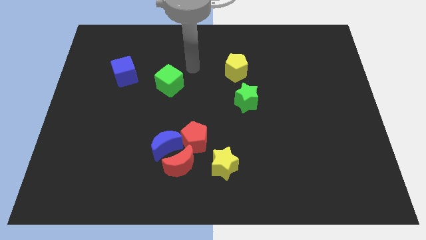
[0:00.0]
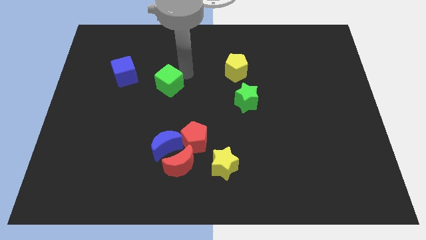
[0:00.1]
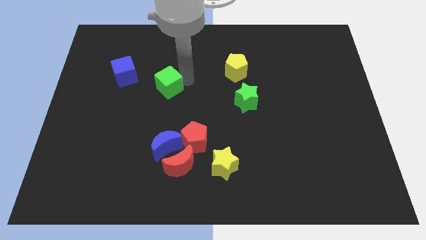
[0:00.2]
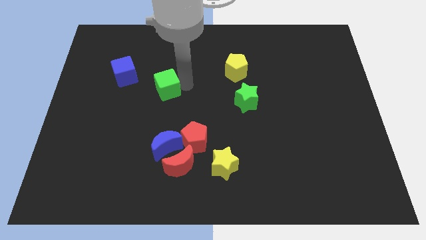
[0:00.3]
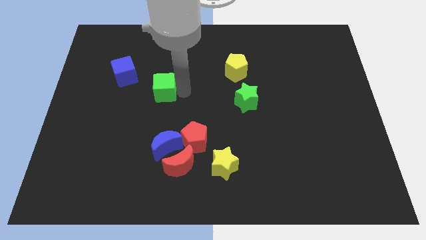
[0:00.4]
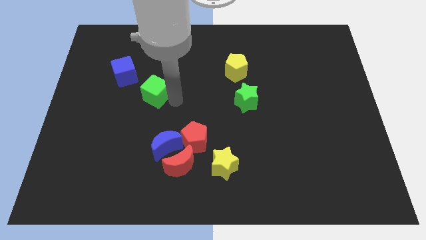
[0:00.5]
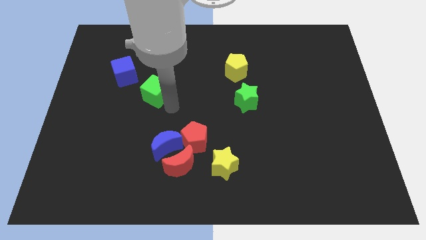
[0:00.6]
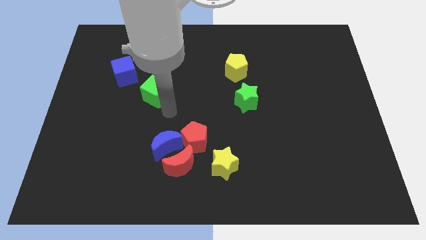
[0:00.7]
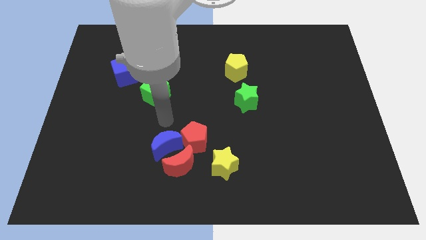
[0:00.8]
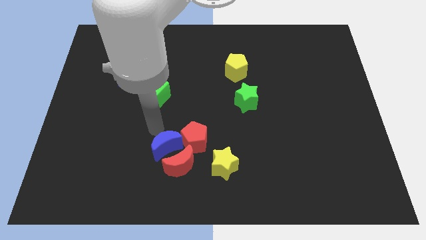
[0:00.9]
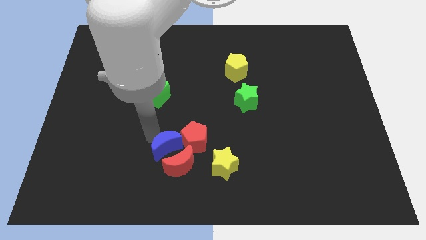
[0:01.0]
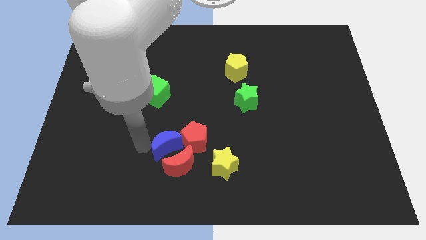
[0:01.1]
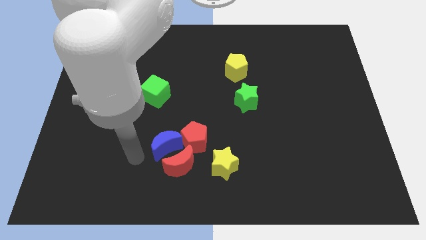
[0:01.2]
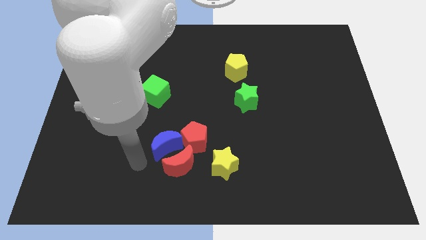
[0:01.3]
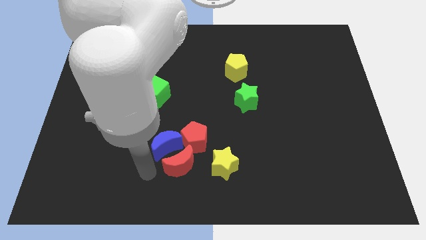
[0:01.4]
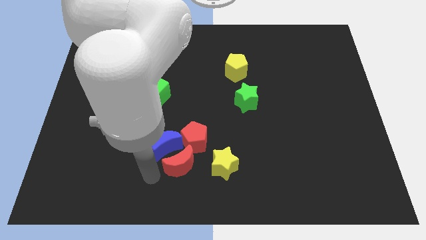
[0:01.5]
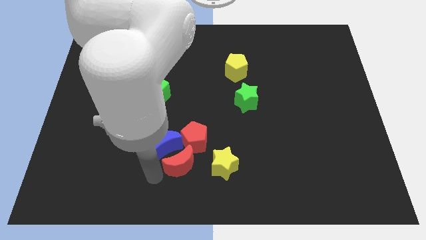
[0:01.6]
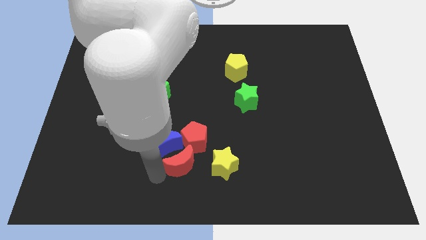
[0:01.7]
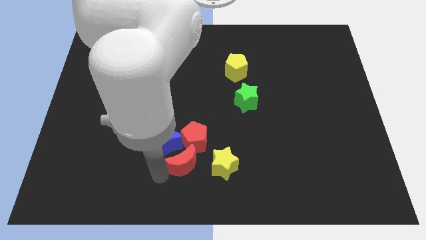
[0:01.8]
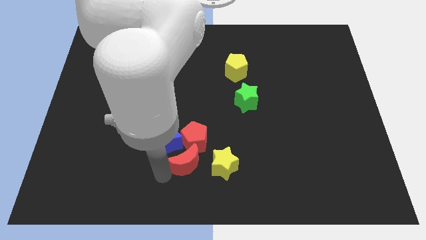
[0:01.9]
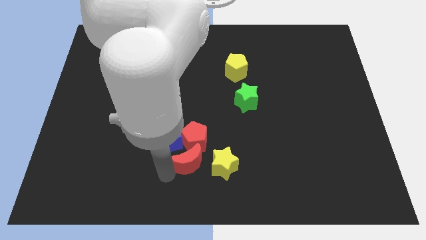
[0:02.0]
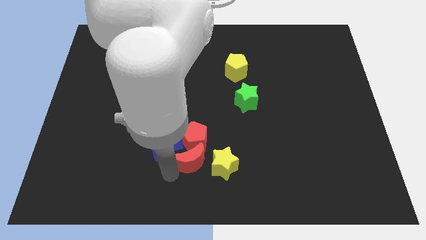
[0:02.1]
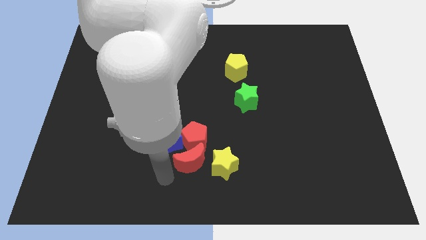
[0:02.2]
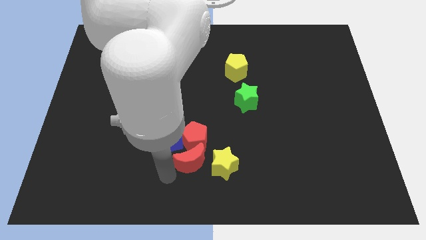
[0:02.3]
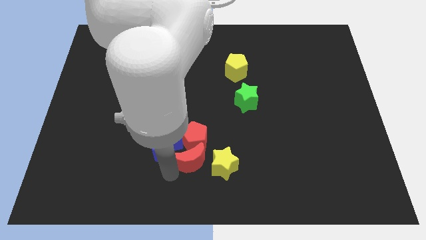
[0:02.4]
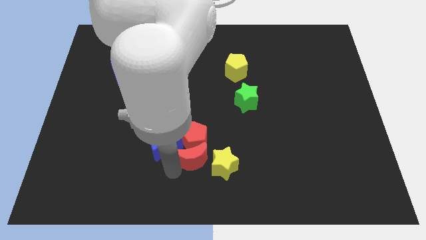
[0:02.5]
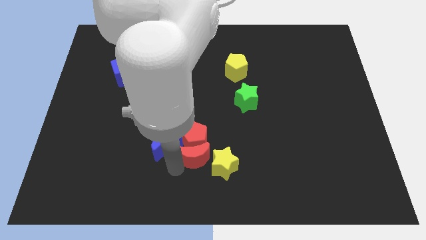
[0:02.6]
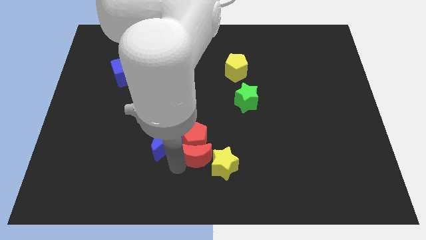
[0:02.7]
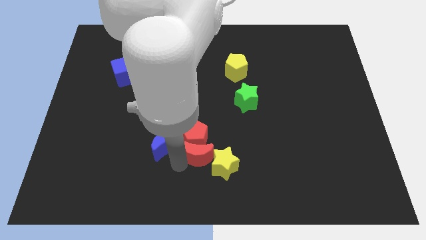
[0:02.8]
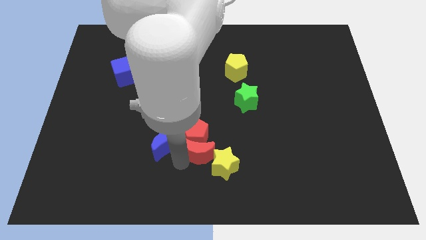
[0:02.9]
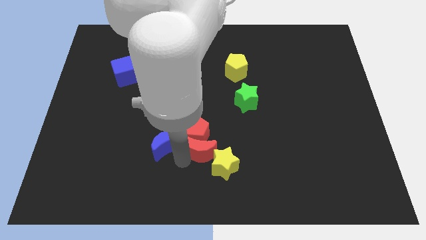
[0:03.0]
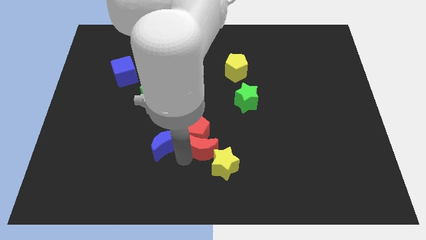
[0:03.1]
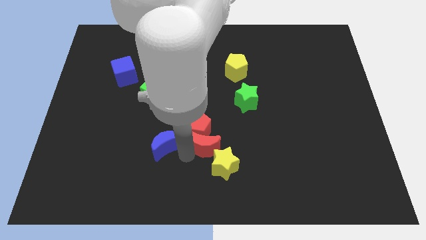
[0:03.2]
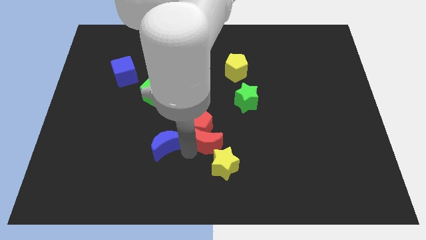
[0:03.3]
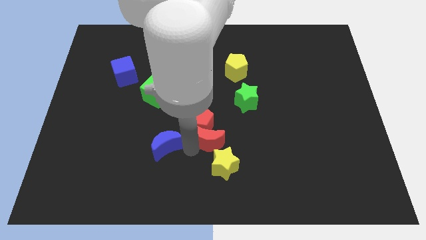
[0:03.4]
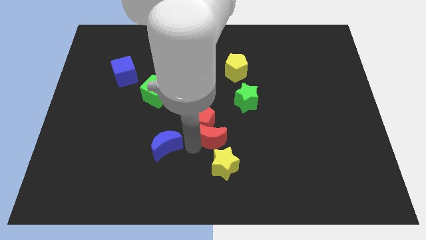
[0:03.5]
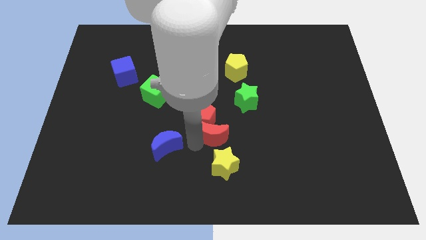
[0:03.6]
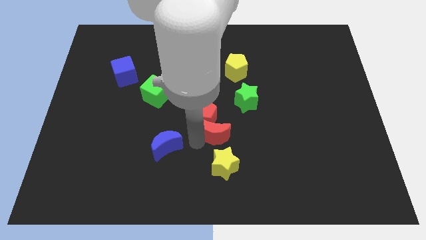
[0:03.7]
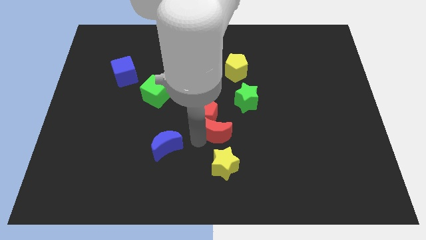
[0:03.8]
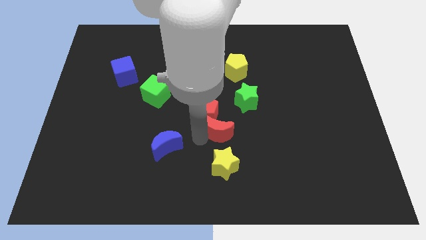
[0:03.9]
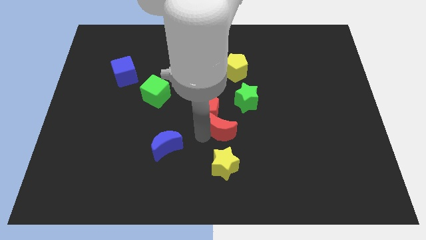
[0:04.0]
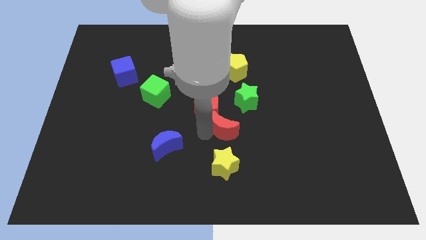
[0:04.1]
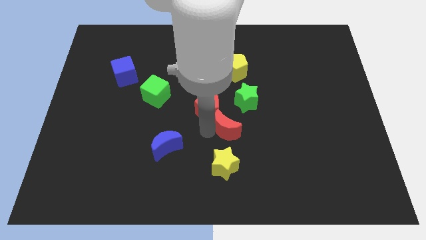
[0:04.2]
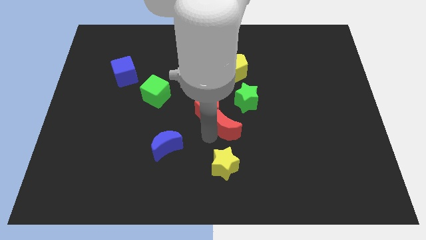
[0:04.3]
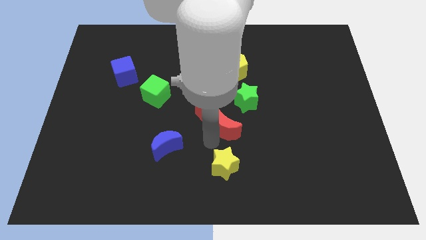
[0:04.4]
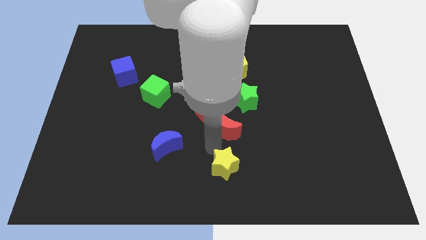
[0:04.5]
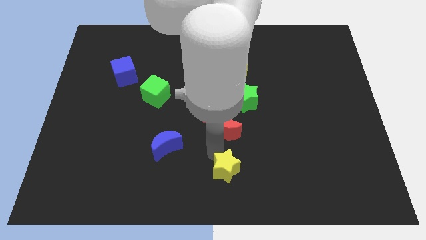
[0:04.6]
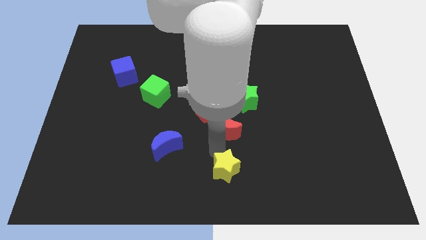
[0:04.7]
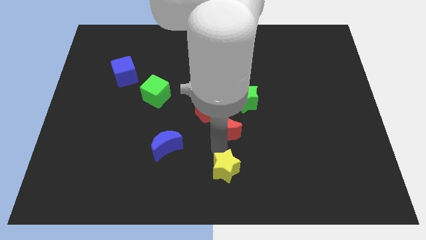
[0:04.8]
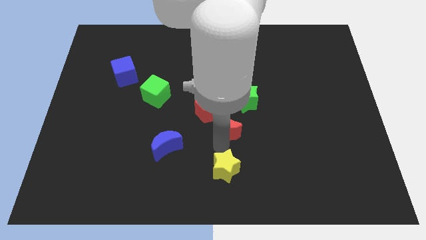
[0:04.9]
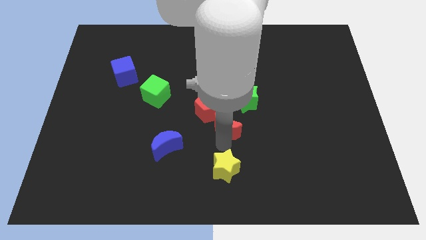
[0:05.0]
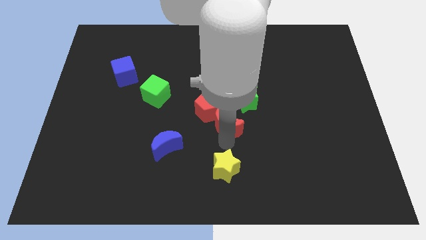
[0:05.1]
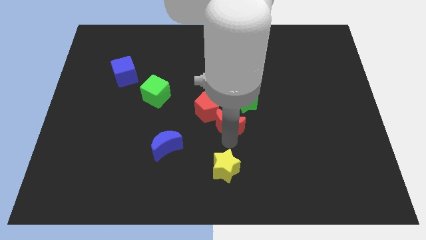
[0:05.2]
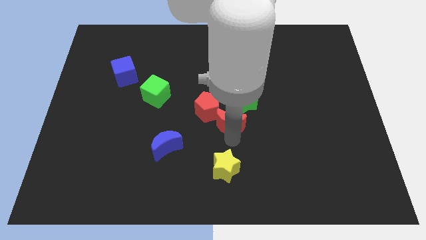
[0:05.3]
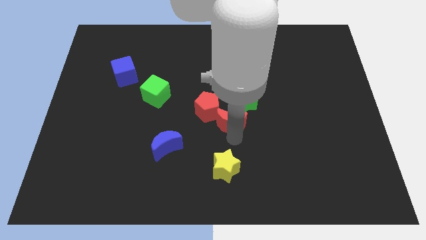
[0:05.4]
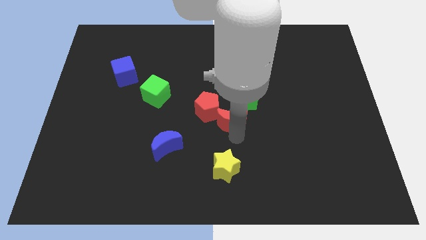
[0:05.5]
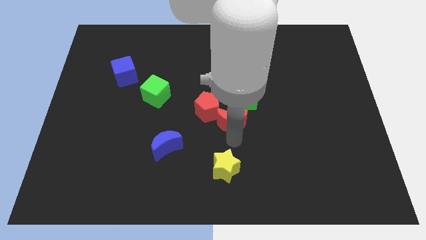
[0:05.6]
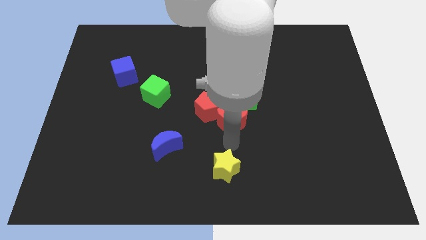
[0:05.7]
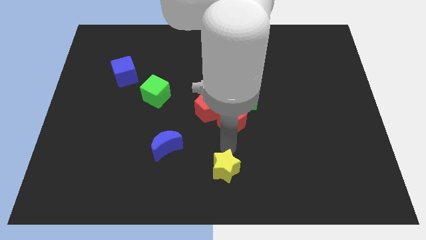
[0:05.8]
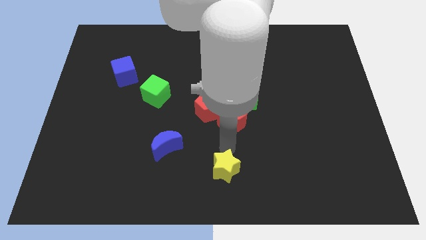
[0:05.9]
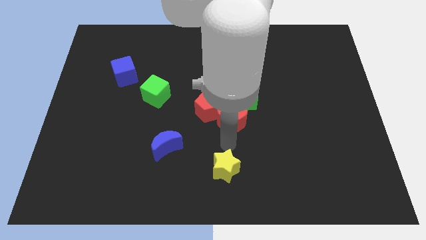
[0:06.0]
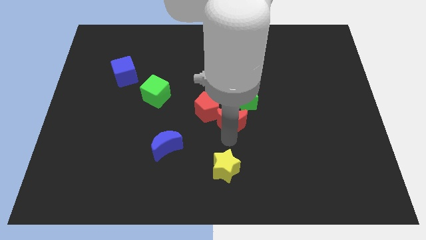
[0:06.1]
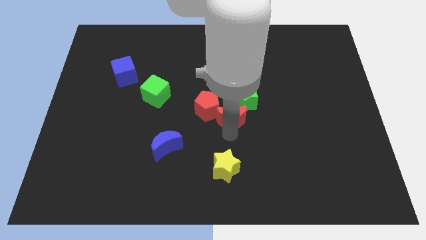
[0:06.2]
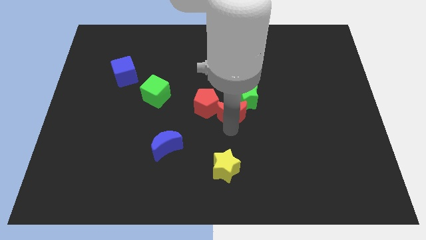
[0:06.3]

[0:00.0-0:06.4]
put the red moon to the green star

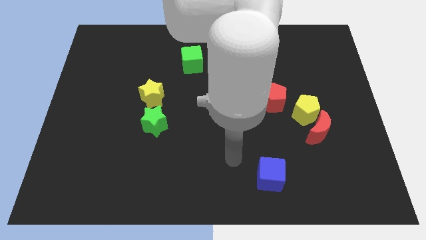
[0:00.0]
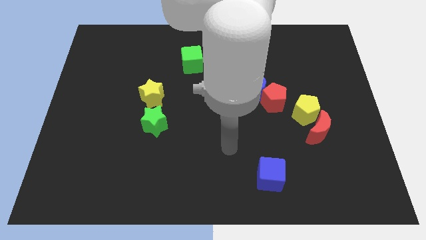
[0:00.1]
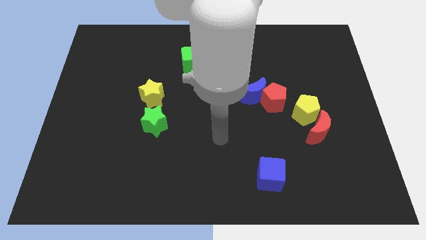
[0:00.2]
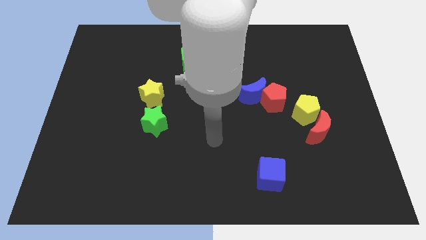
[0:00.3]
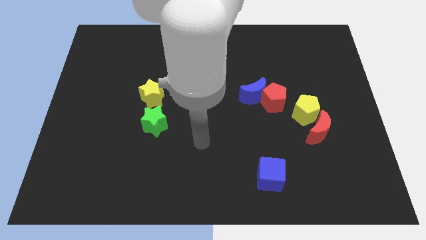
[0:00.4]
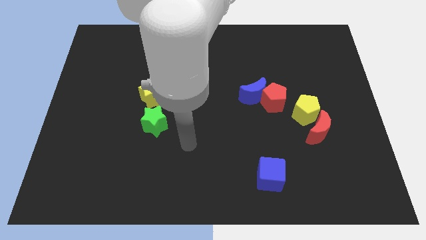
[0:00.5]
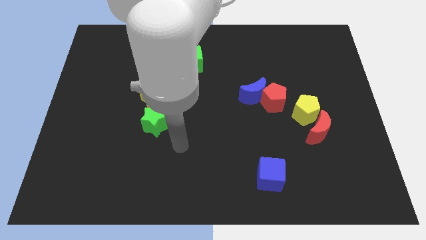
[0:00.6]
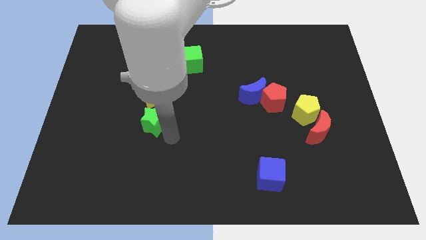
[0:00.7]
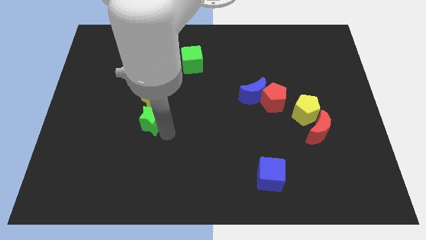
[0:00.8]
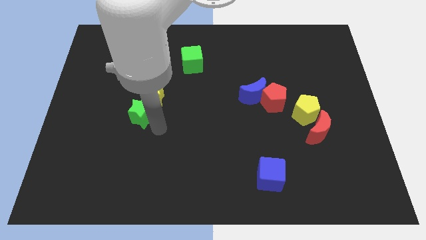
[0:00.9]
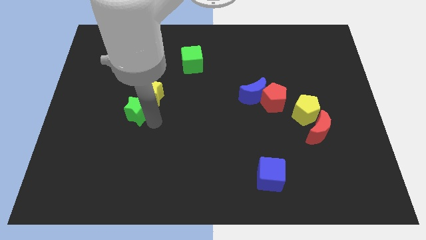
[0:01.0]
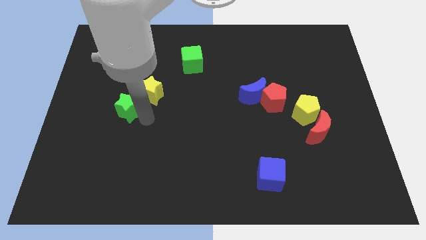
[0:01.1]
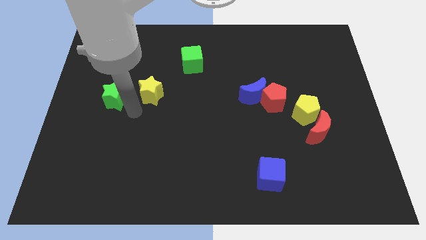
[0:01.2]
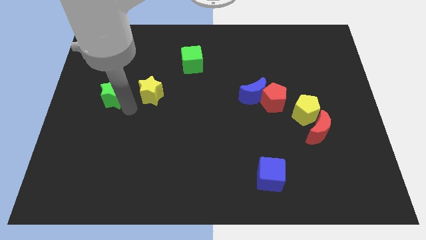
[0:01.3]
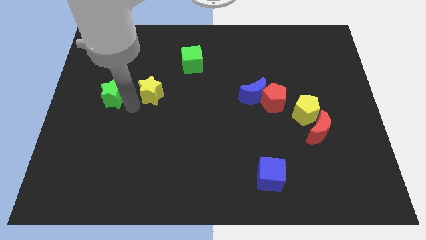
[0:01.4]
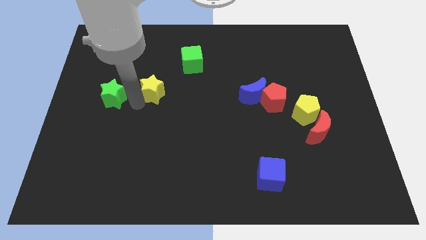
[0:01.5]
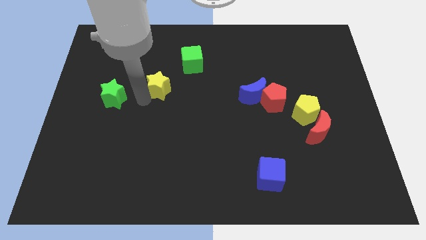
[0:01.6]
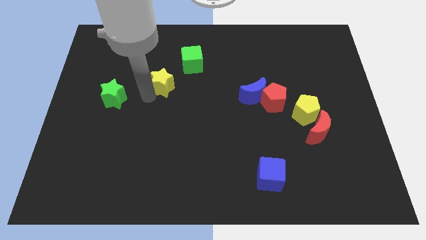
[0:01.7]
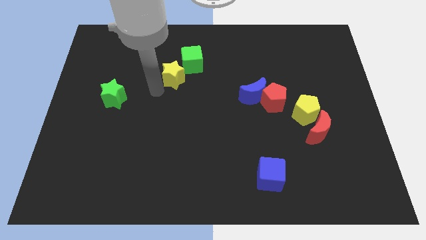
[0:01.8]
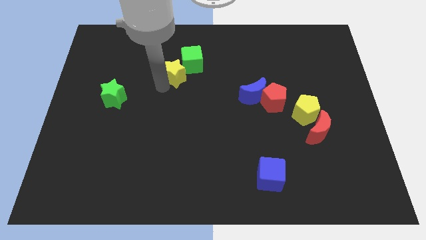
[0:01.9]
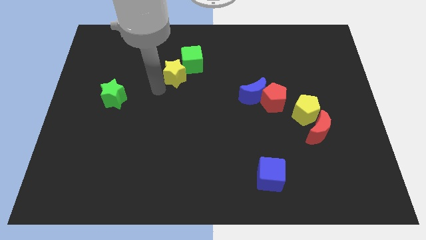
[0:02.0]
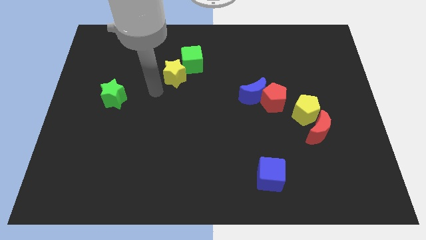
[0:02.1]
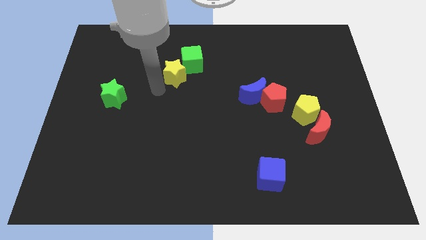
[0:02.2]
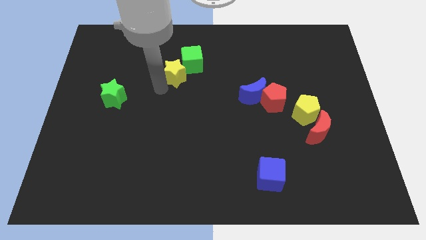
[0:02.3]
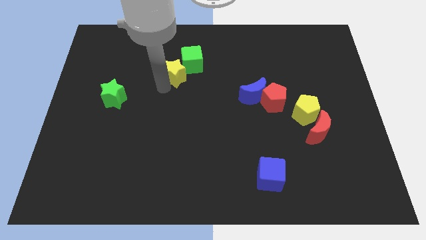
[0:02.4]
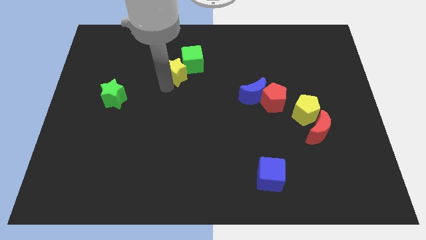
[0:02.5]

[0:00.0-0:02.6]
push the yellow star close to the green cube
